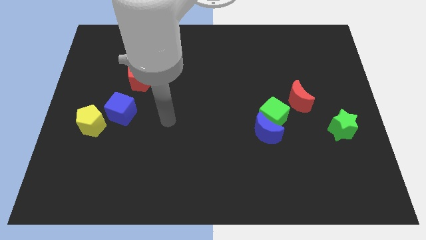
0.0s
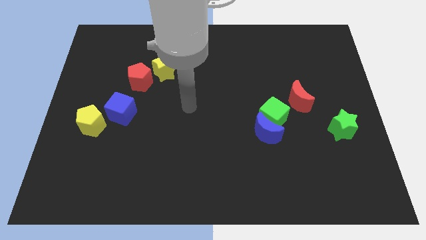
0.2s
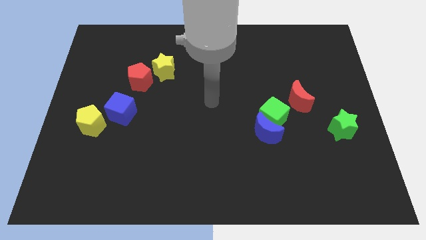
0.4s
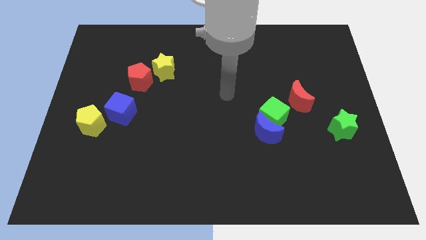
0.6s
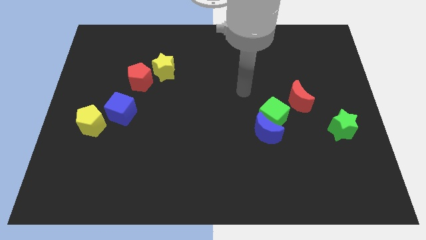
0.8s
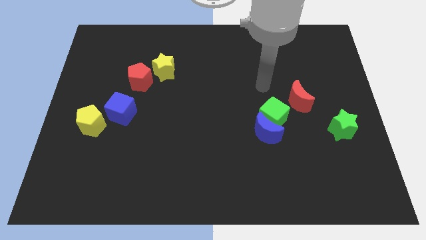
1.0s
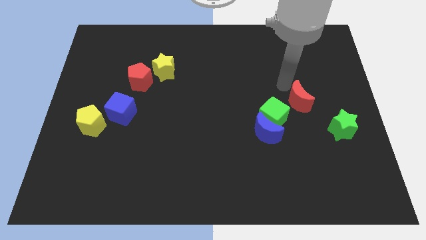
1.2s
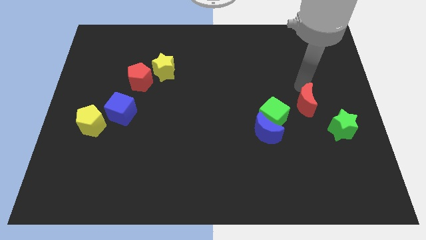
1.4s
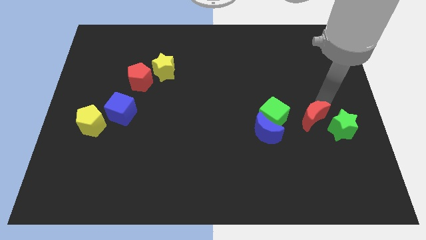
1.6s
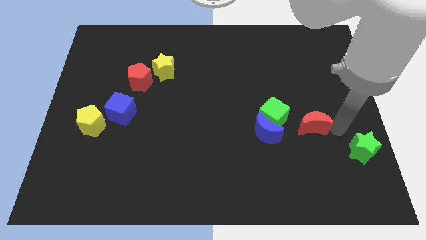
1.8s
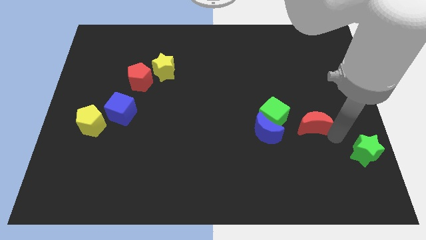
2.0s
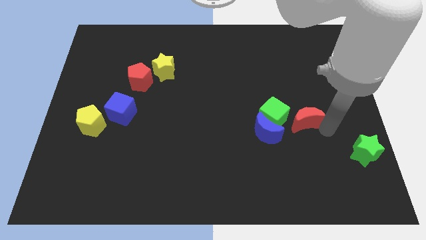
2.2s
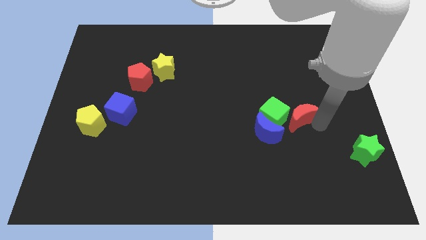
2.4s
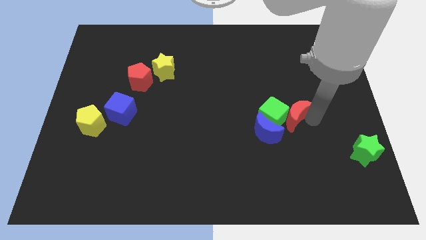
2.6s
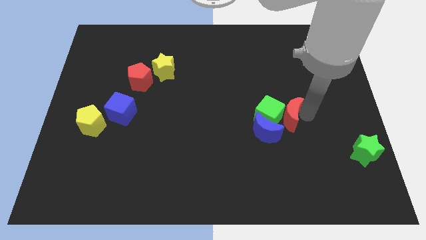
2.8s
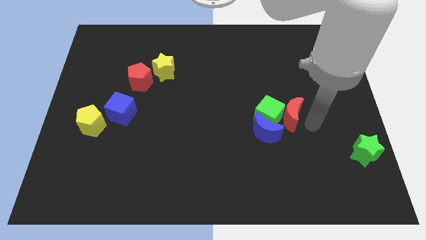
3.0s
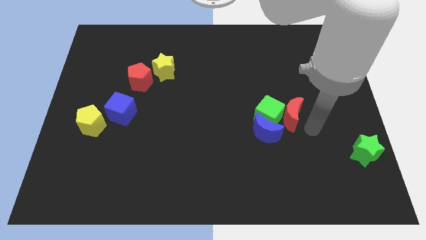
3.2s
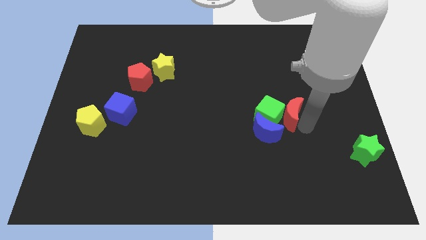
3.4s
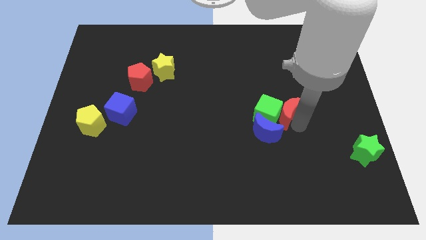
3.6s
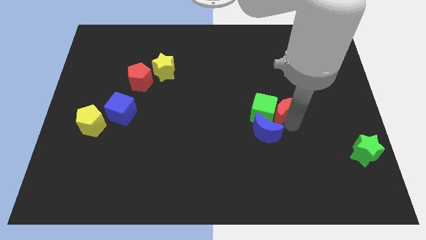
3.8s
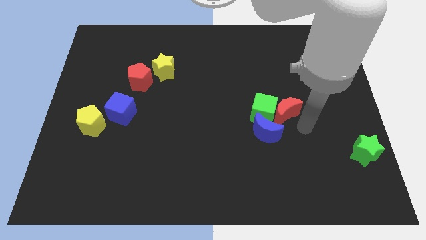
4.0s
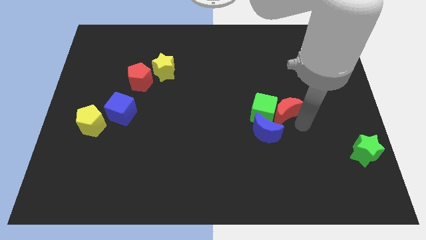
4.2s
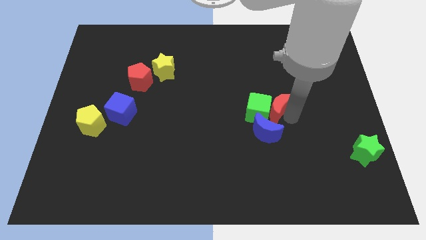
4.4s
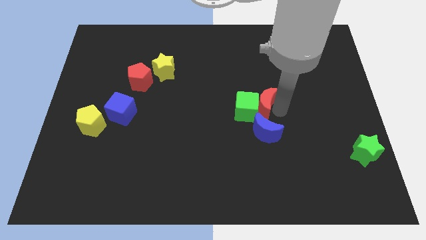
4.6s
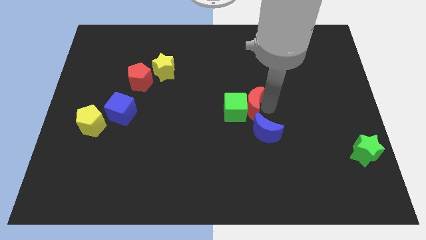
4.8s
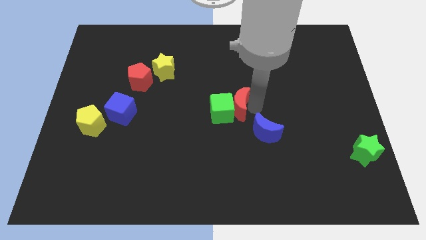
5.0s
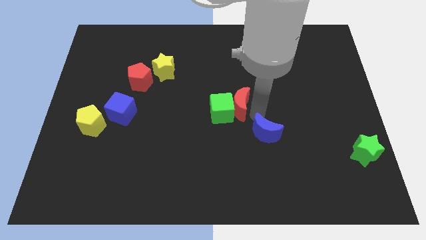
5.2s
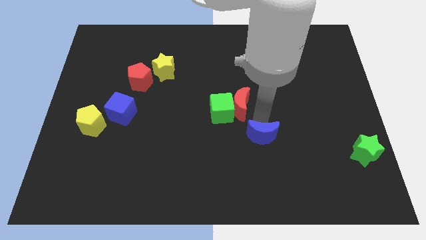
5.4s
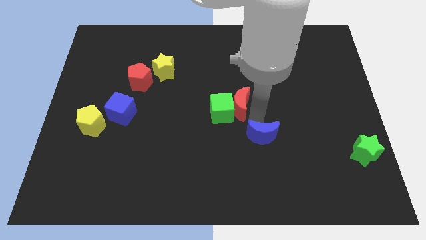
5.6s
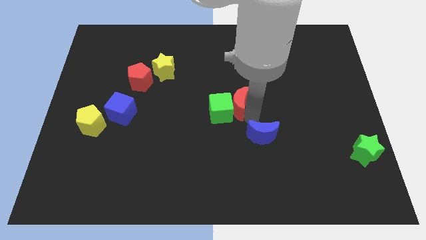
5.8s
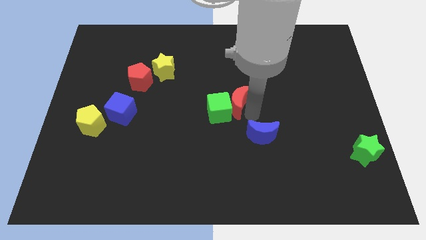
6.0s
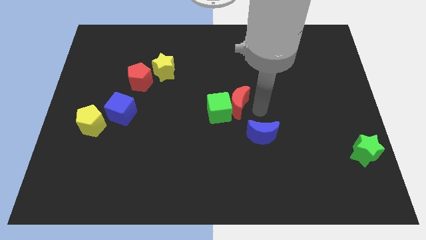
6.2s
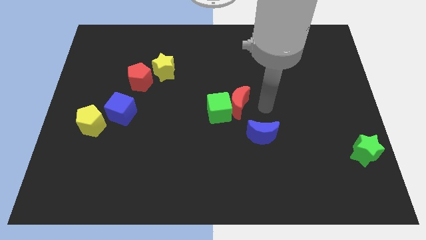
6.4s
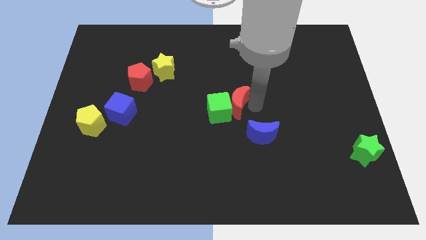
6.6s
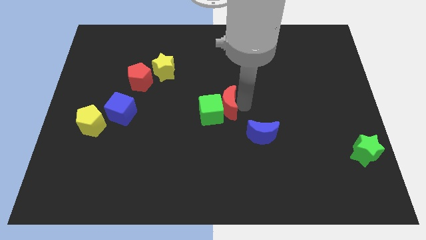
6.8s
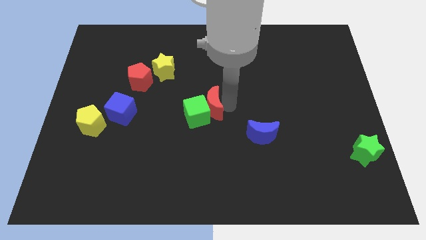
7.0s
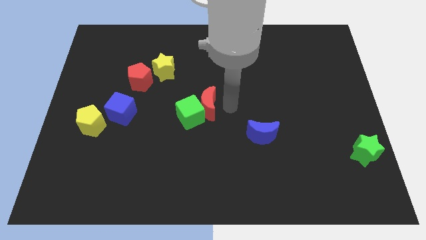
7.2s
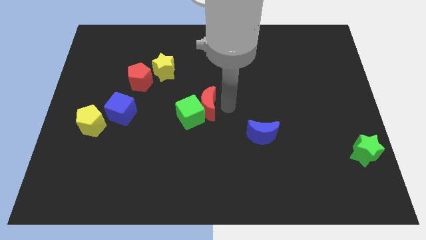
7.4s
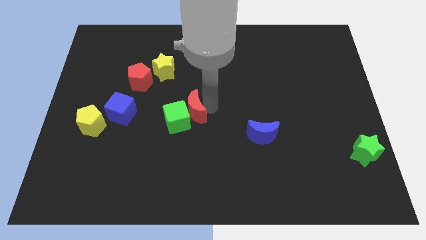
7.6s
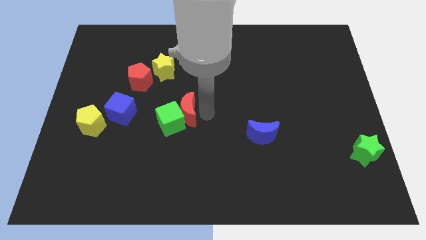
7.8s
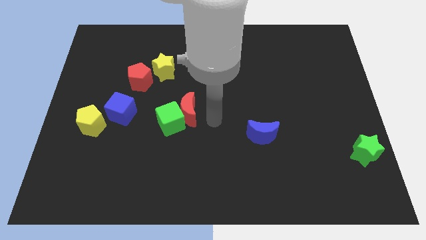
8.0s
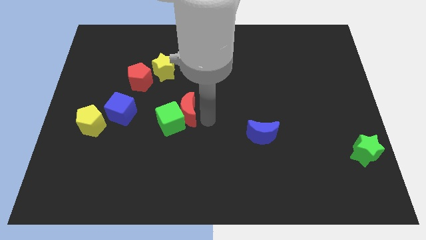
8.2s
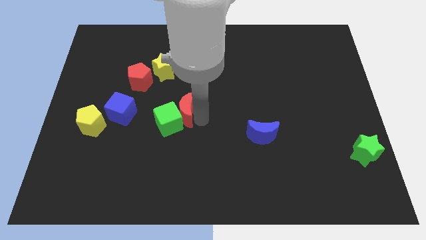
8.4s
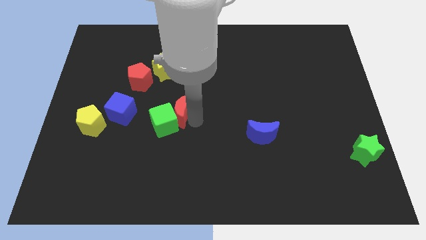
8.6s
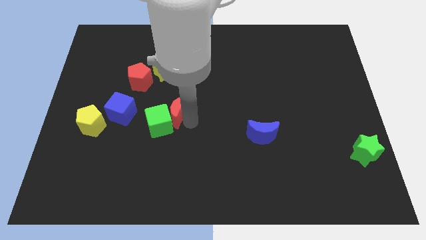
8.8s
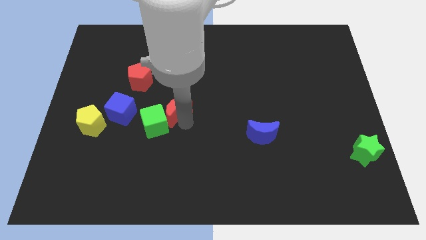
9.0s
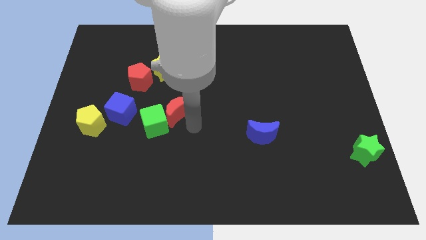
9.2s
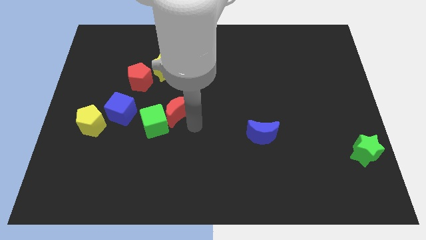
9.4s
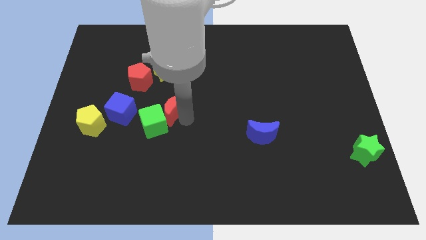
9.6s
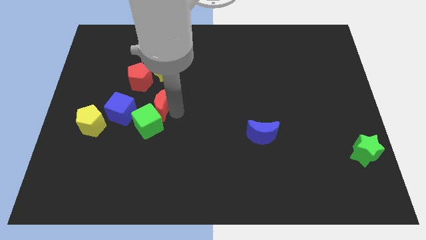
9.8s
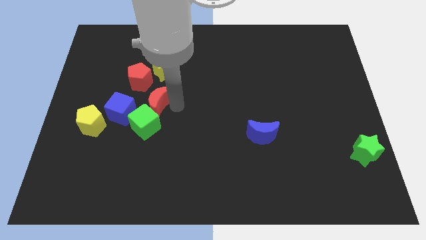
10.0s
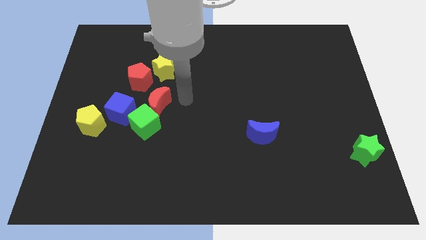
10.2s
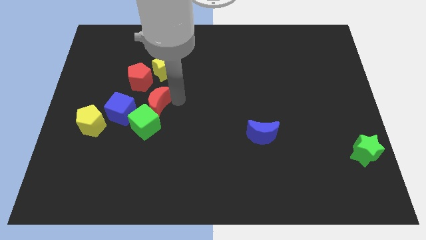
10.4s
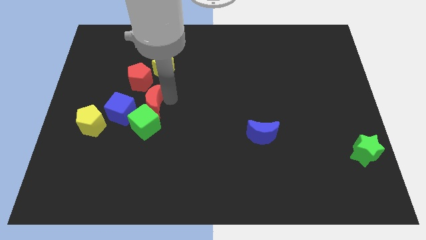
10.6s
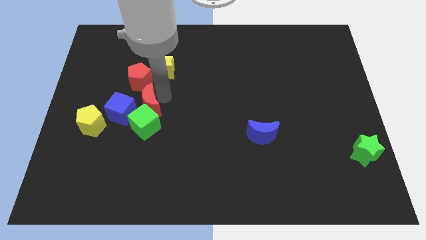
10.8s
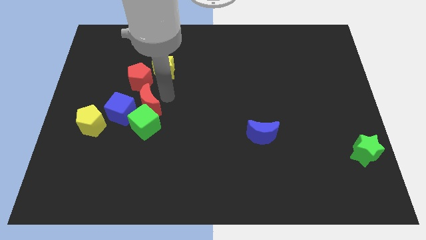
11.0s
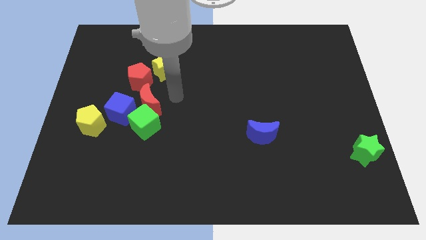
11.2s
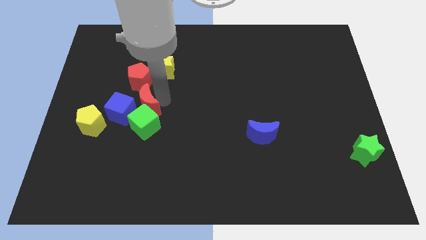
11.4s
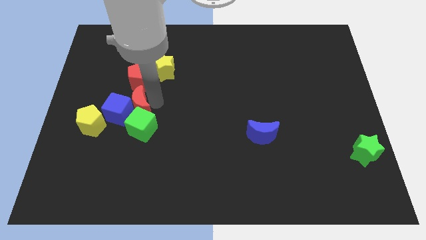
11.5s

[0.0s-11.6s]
slide the red moon to the blue cube

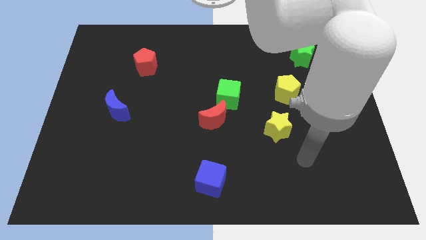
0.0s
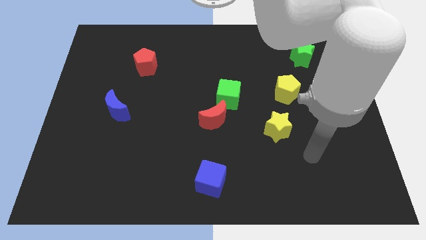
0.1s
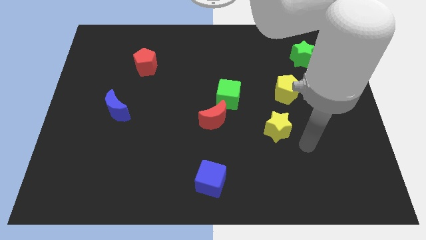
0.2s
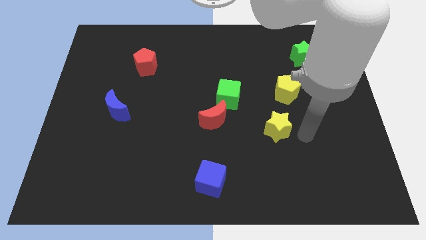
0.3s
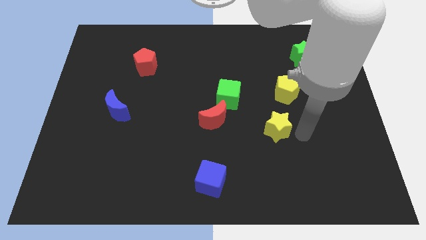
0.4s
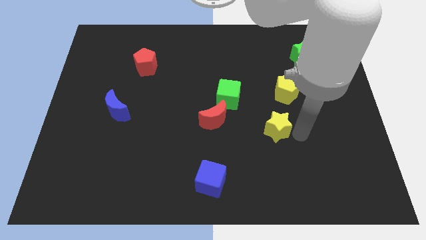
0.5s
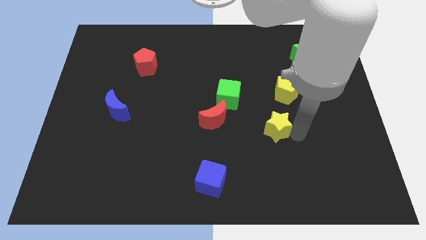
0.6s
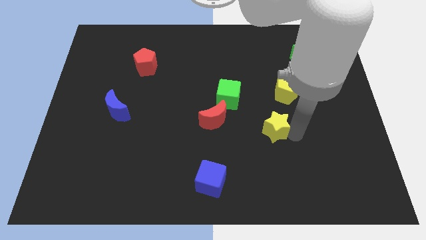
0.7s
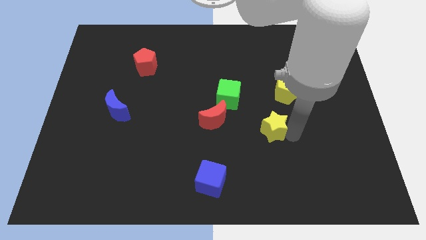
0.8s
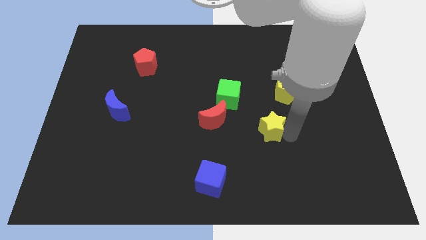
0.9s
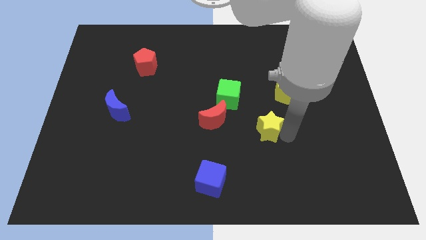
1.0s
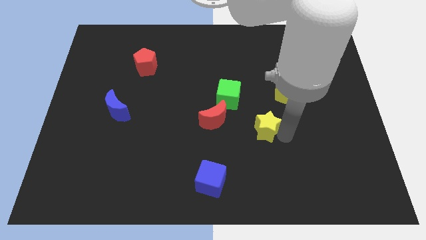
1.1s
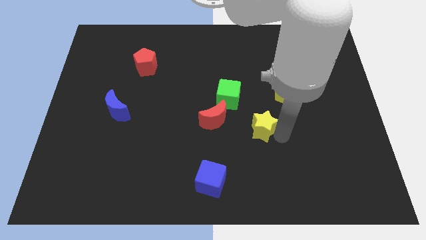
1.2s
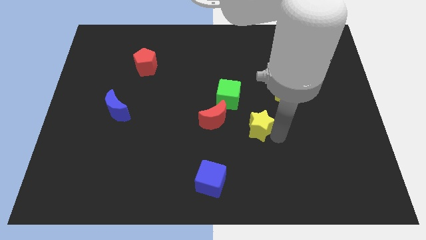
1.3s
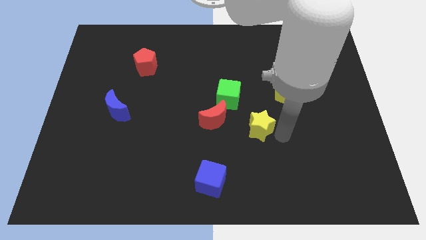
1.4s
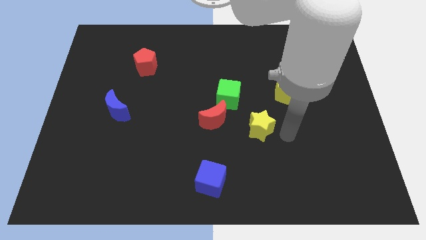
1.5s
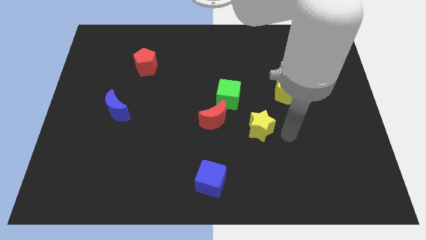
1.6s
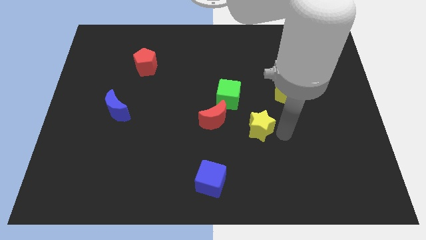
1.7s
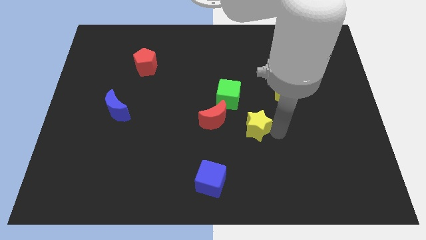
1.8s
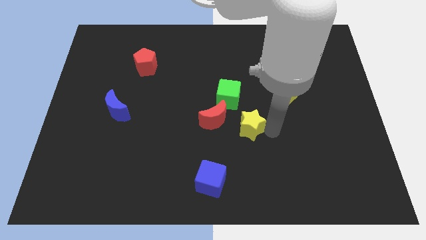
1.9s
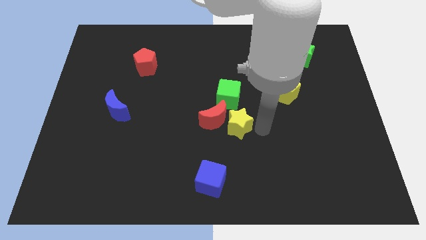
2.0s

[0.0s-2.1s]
move the yellow star towards the red moon
